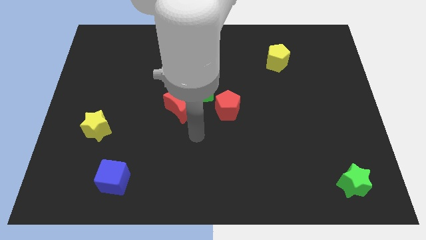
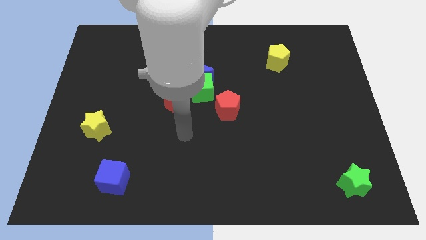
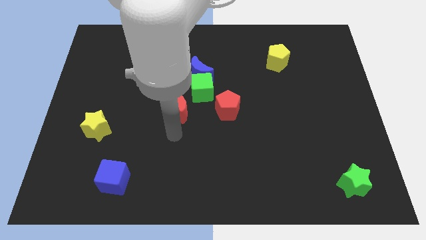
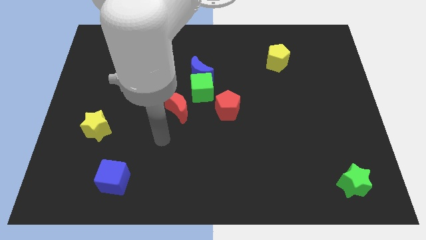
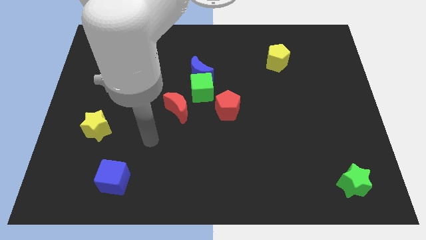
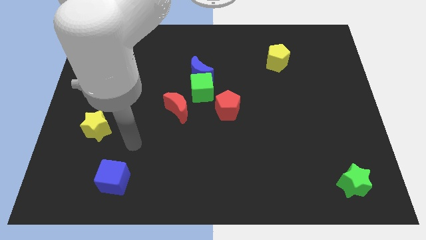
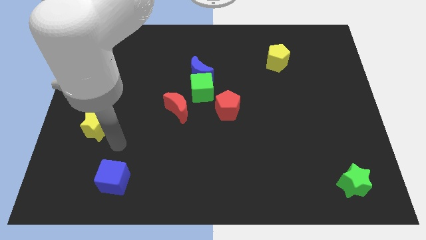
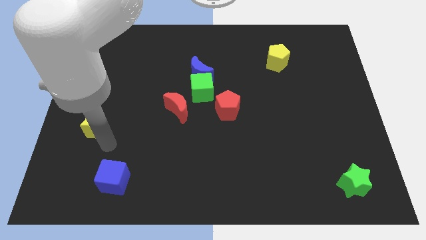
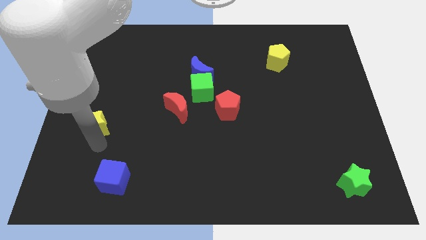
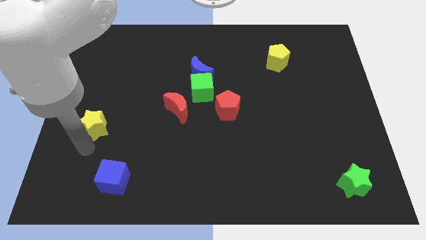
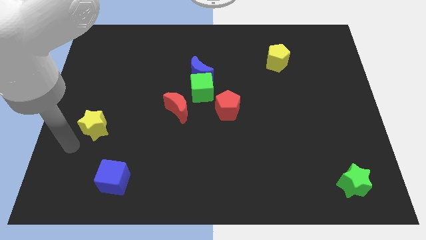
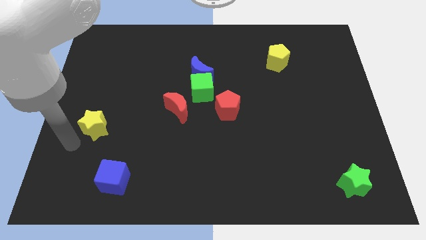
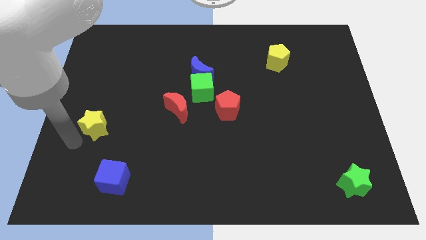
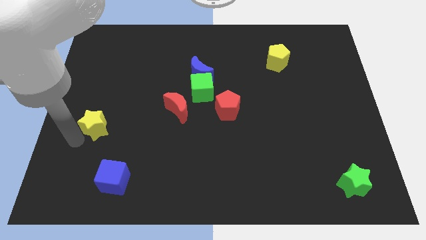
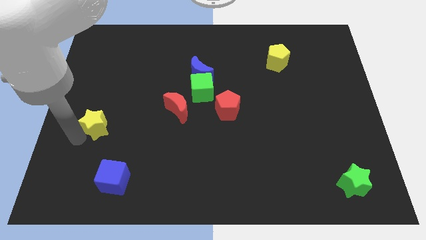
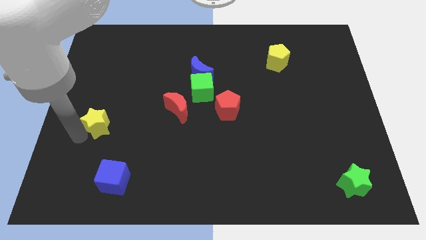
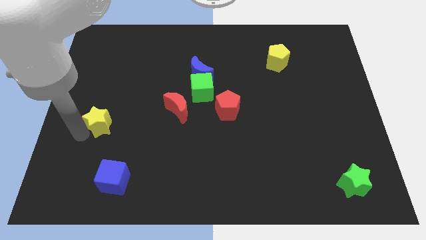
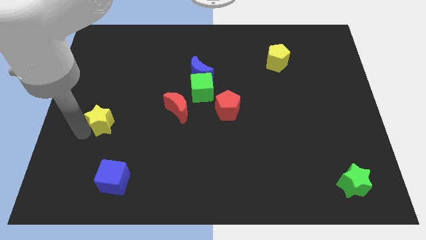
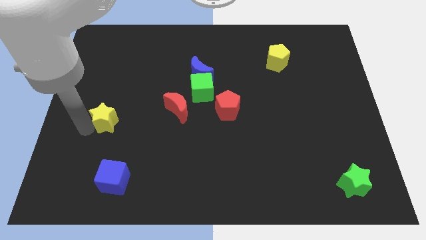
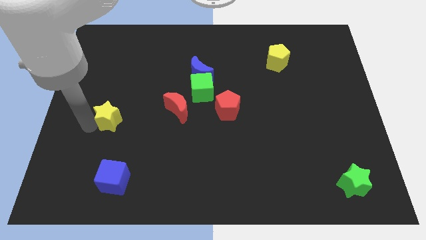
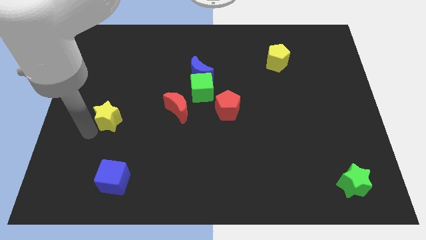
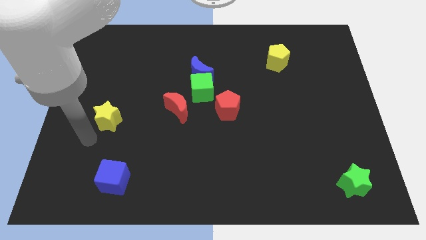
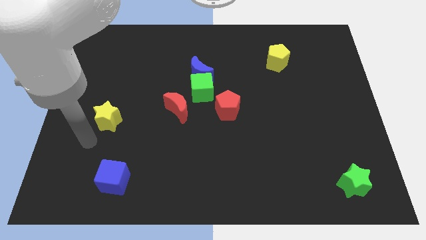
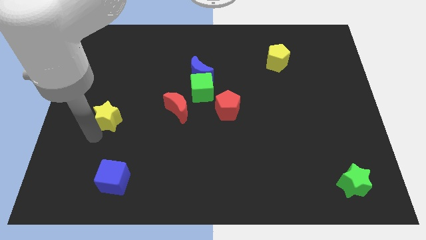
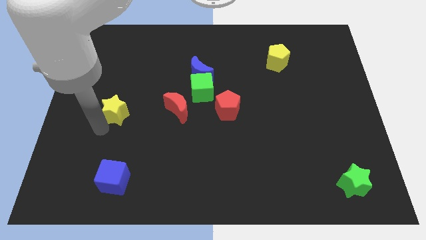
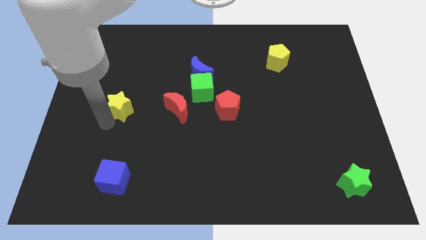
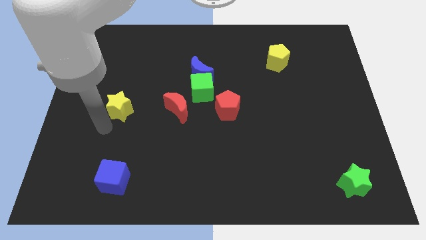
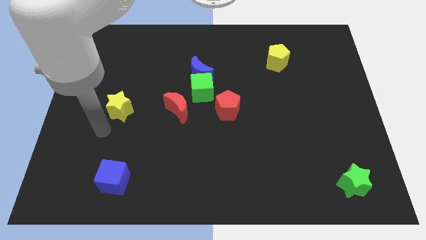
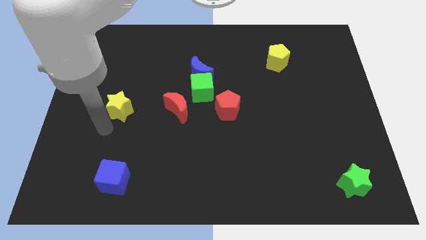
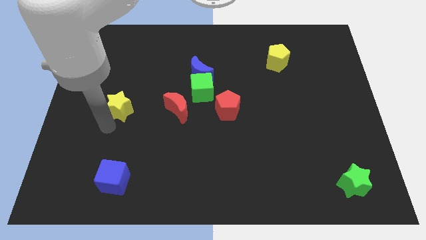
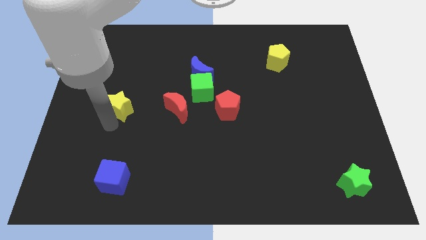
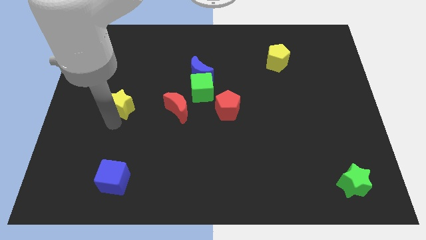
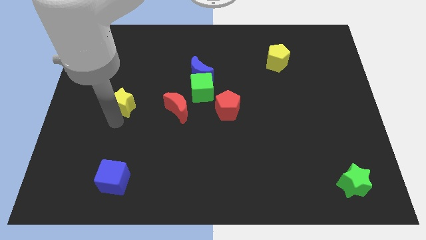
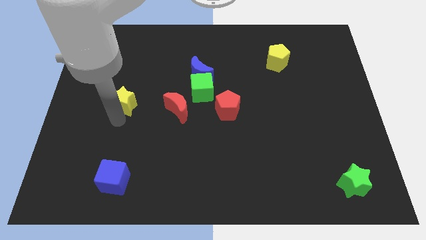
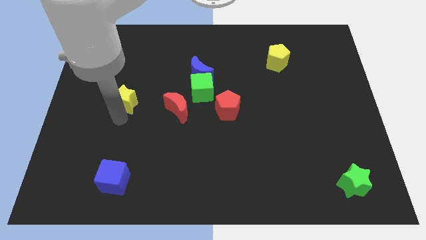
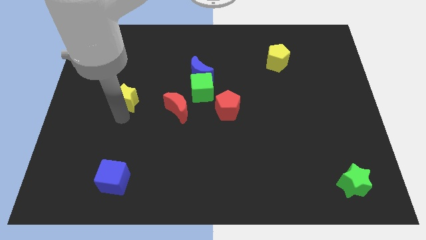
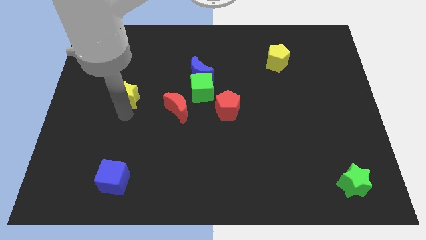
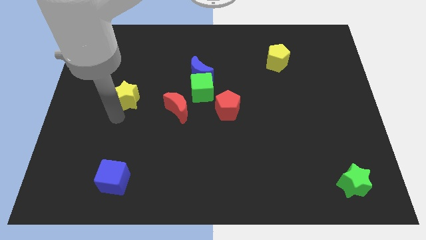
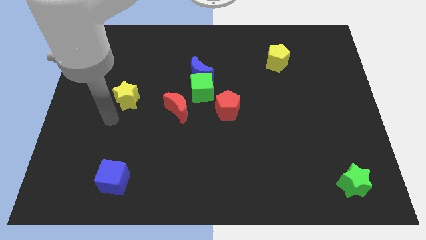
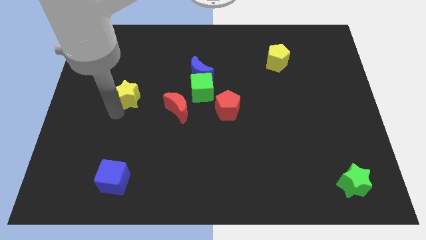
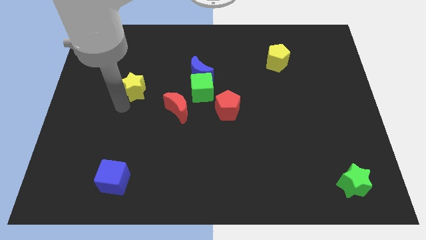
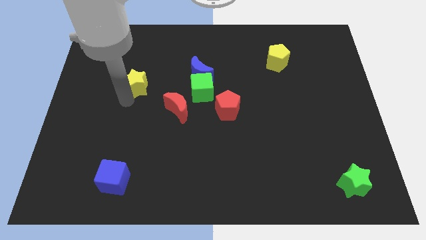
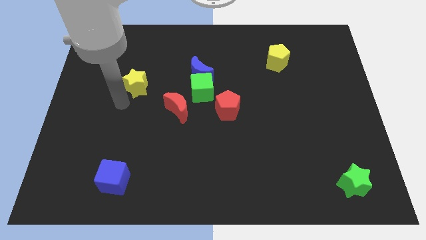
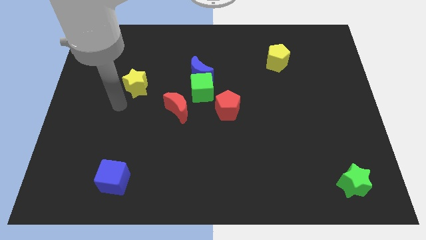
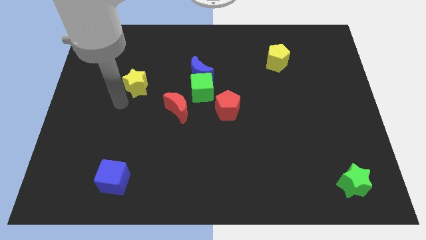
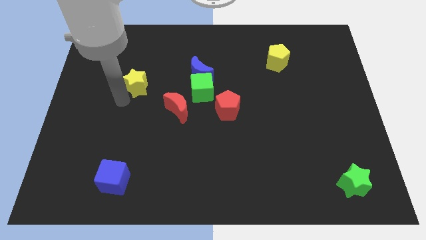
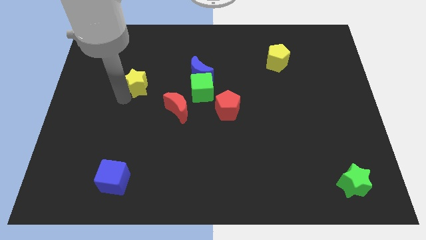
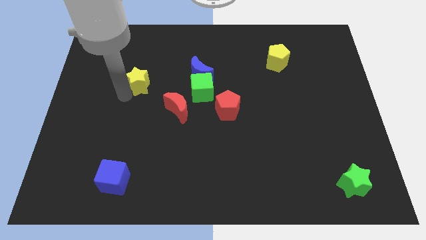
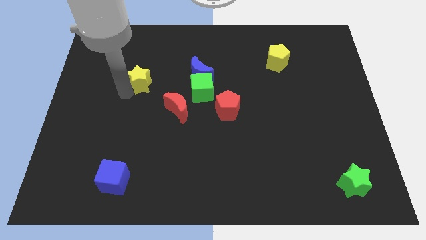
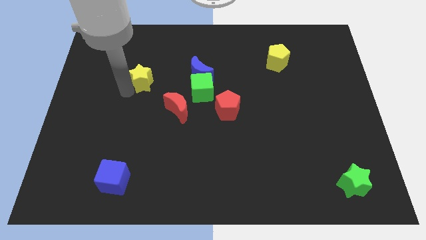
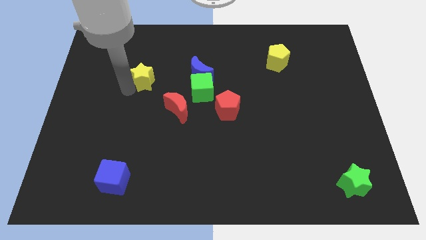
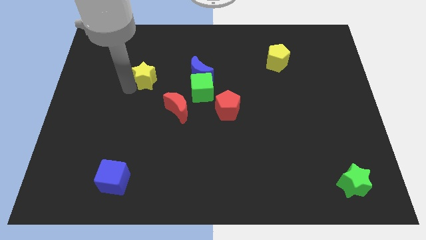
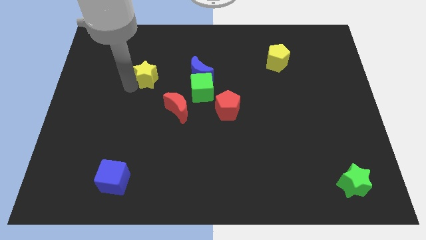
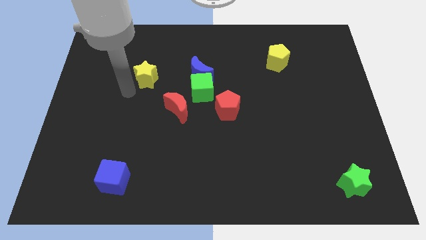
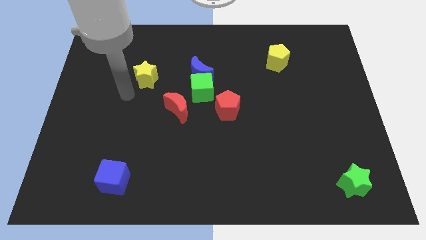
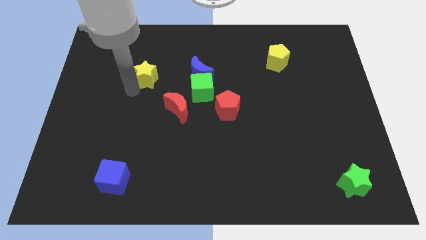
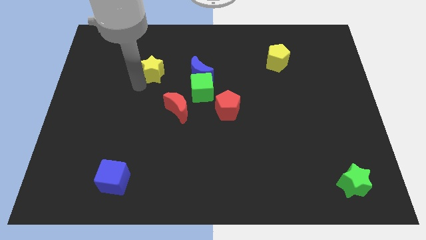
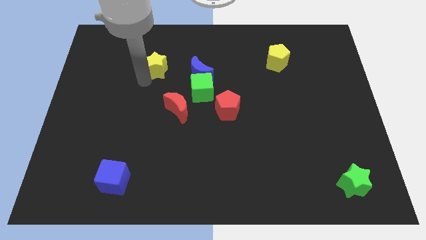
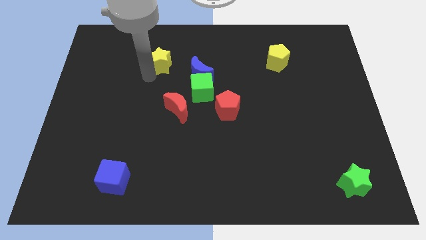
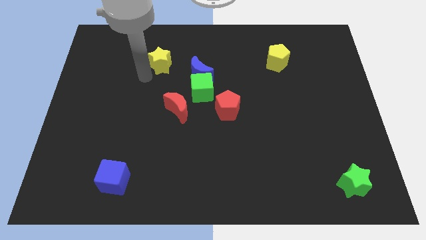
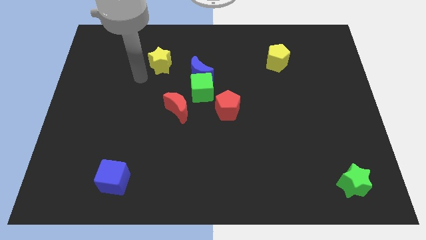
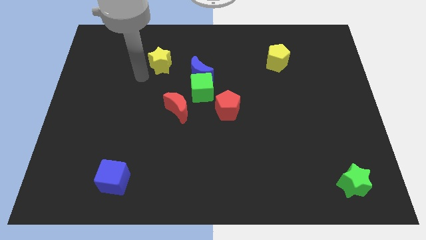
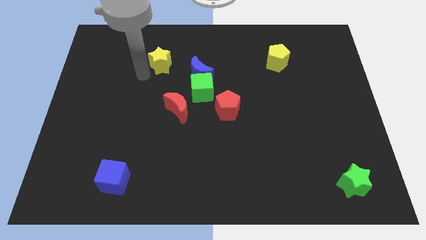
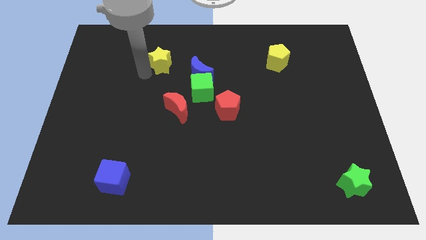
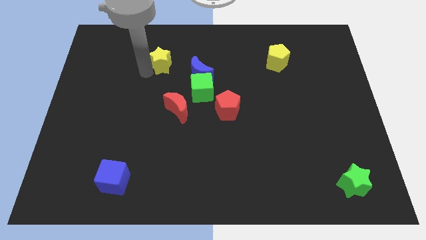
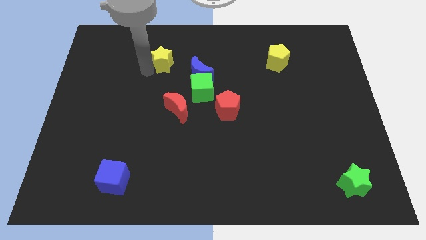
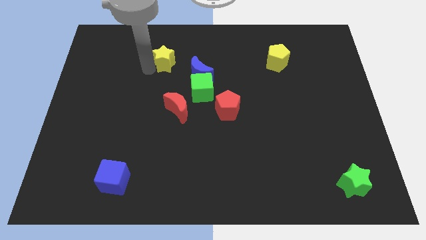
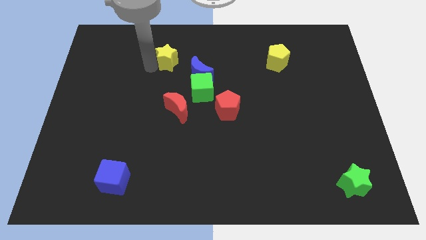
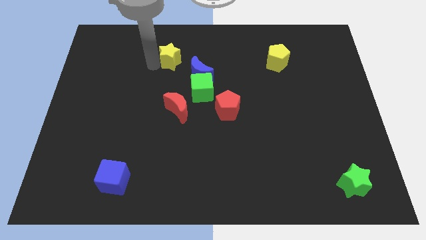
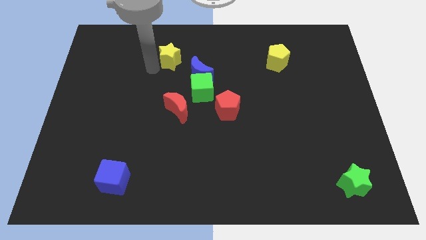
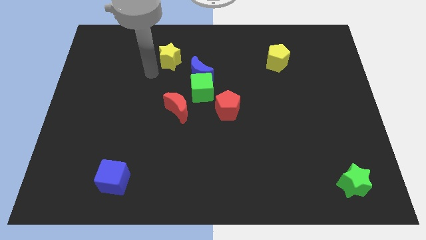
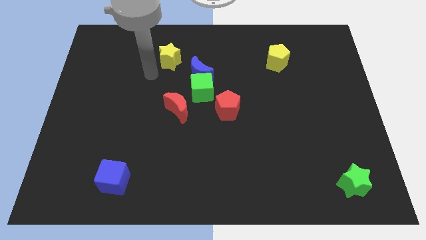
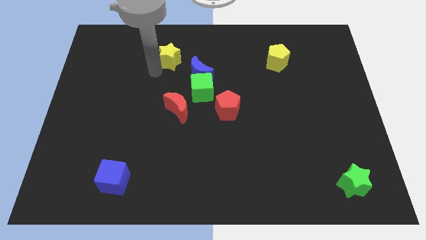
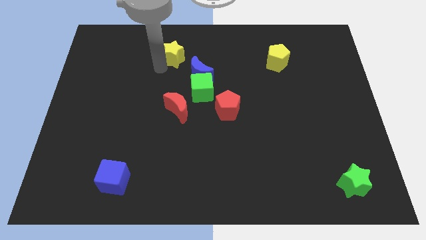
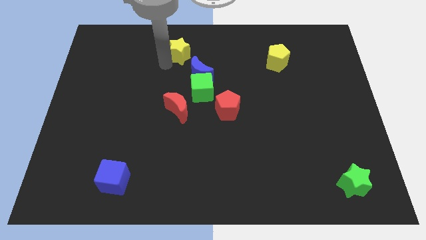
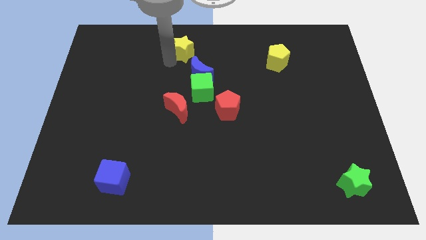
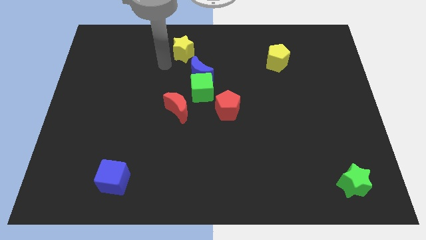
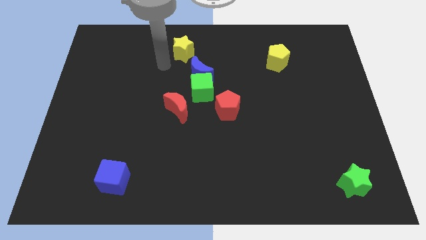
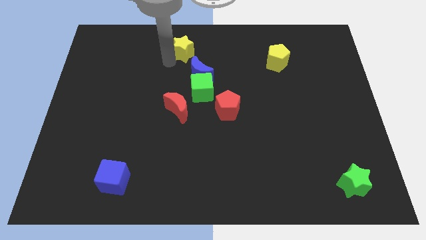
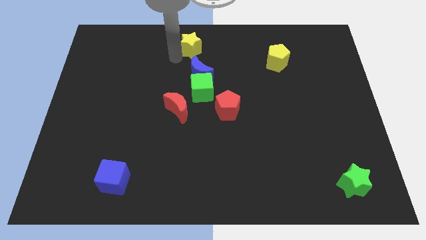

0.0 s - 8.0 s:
push the yellow star to the top
